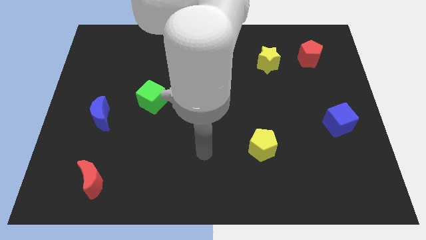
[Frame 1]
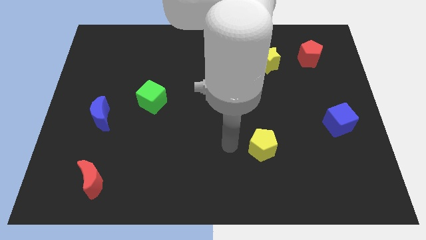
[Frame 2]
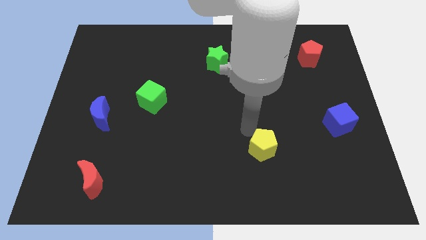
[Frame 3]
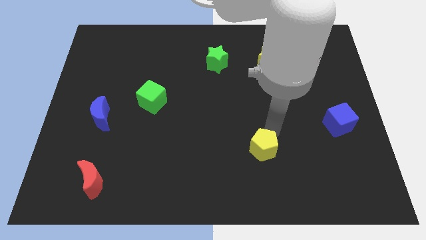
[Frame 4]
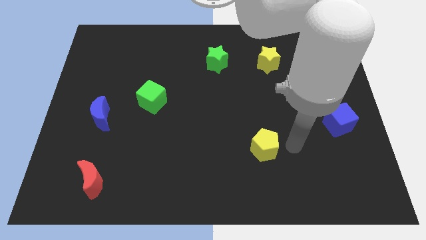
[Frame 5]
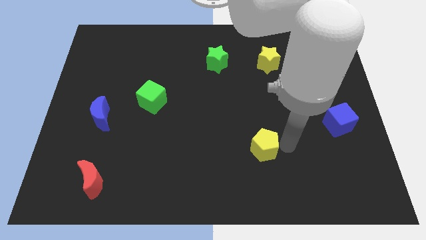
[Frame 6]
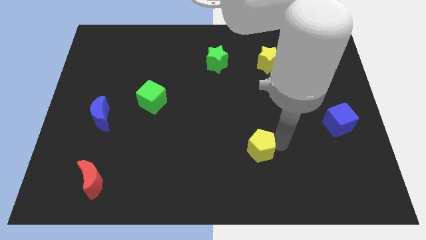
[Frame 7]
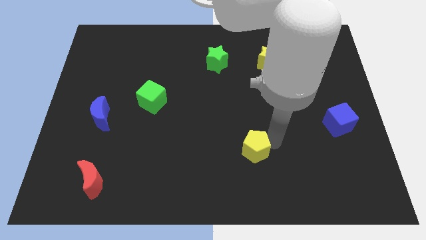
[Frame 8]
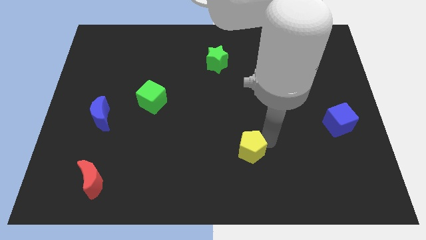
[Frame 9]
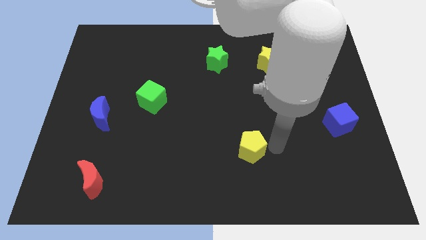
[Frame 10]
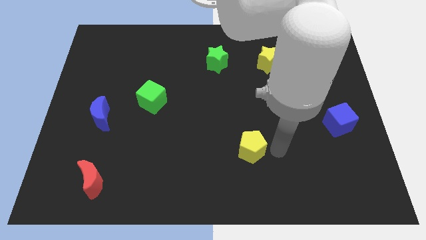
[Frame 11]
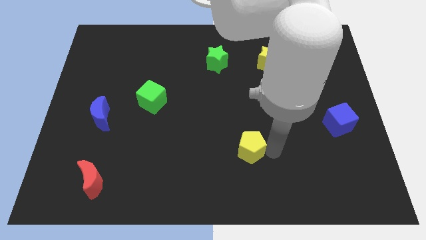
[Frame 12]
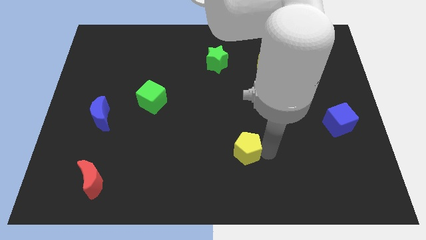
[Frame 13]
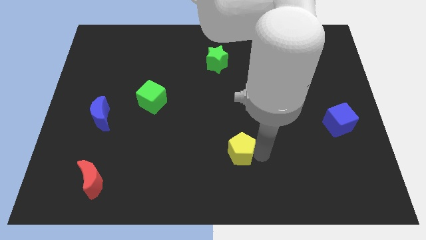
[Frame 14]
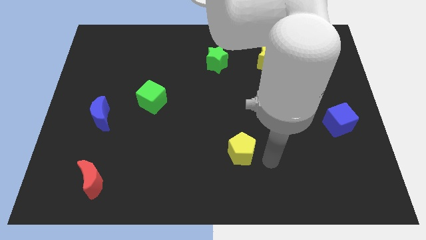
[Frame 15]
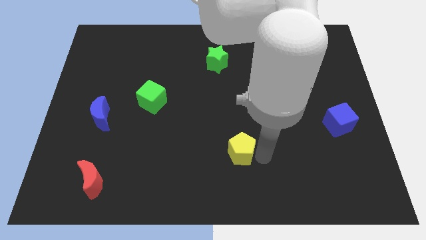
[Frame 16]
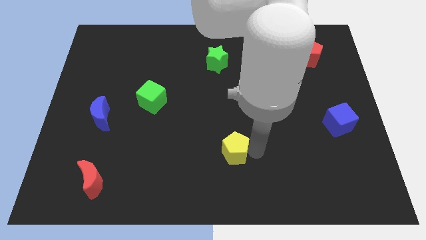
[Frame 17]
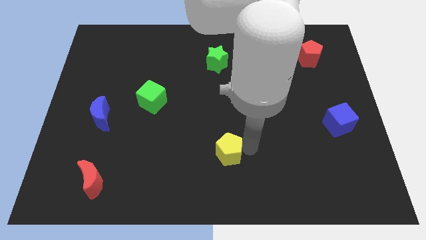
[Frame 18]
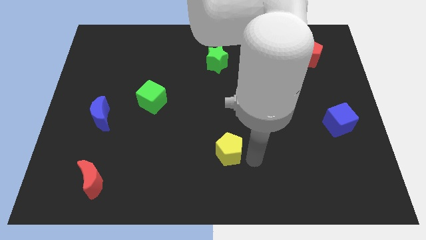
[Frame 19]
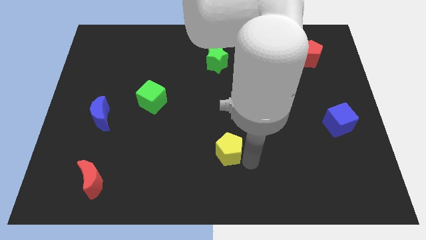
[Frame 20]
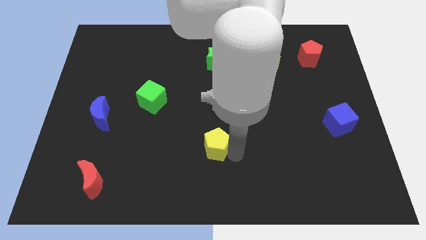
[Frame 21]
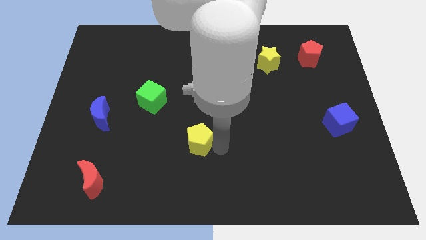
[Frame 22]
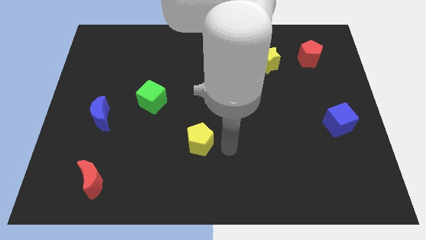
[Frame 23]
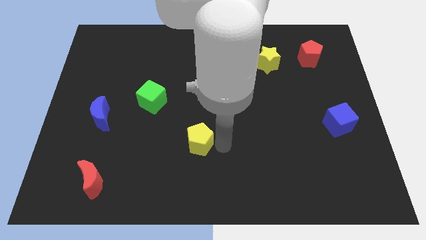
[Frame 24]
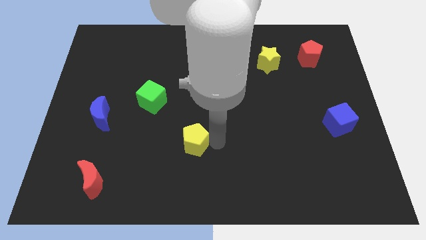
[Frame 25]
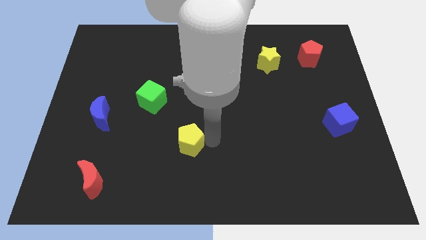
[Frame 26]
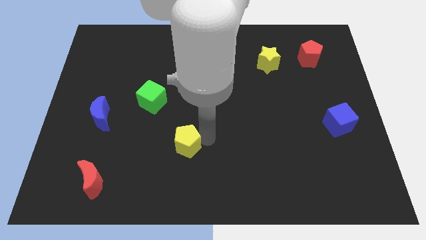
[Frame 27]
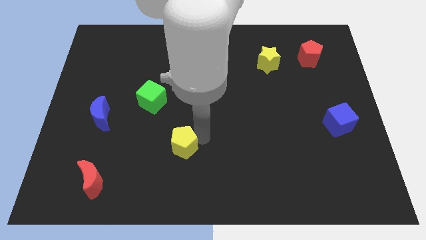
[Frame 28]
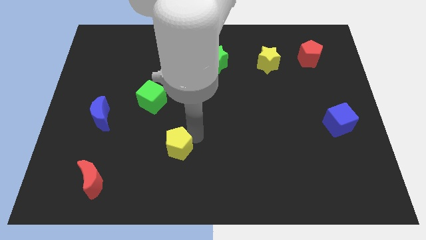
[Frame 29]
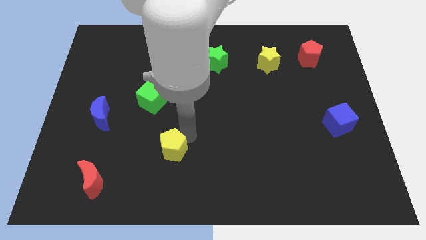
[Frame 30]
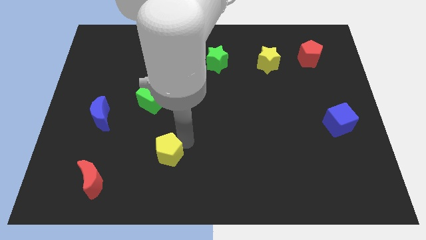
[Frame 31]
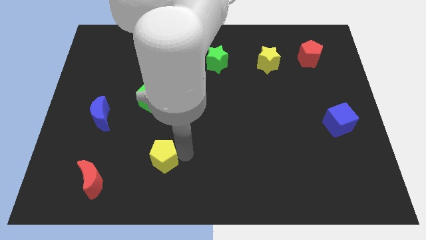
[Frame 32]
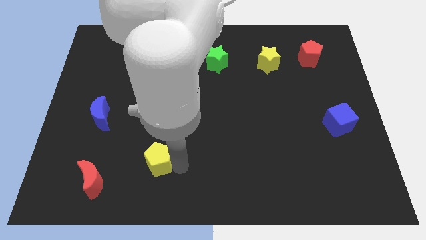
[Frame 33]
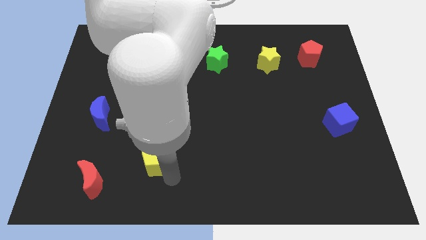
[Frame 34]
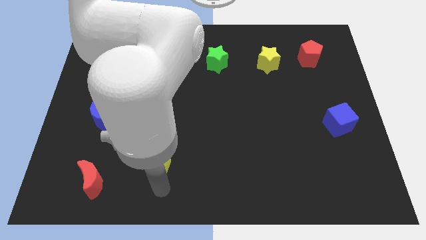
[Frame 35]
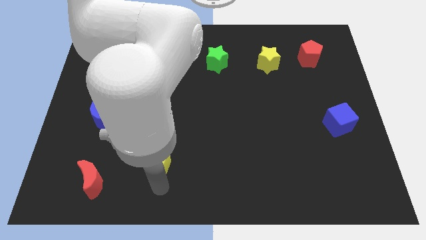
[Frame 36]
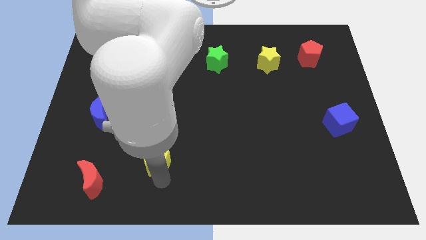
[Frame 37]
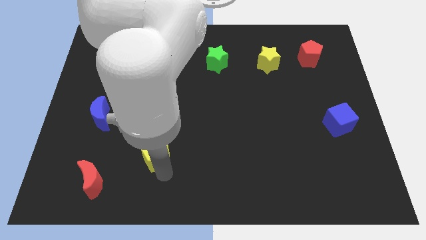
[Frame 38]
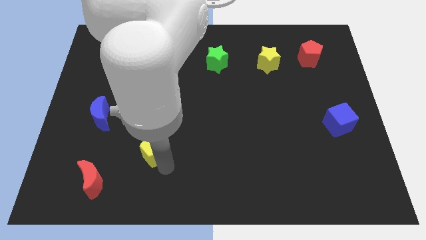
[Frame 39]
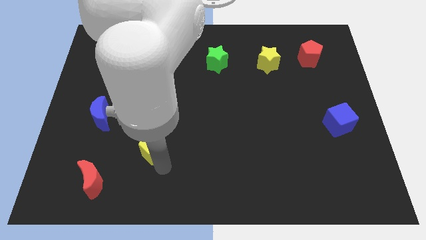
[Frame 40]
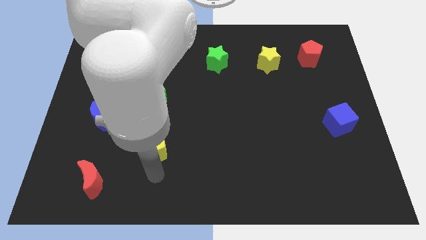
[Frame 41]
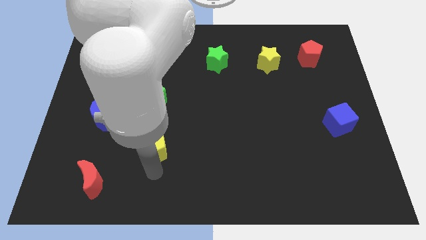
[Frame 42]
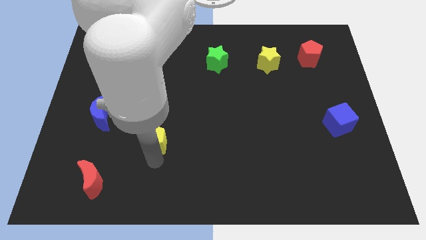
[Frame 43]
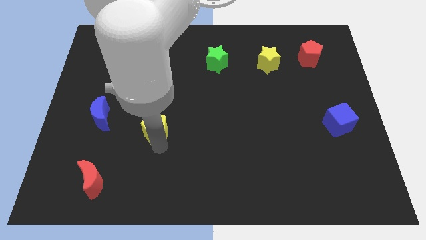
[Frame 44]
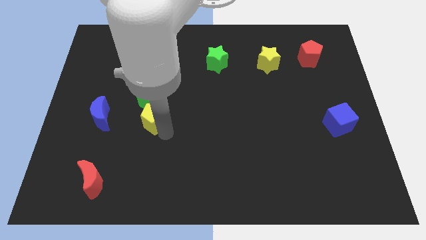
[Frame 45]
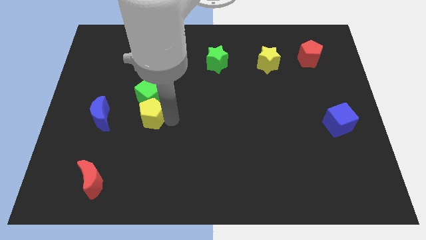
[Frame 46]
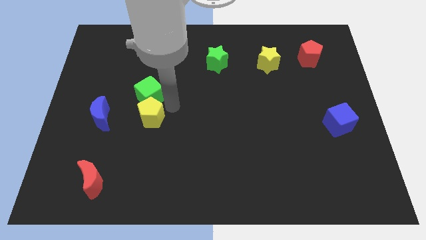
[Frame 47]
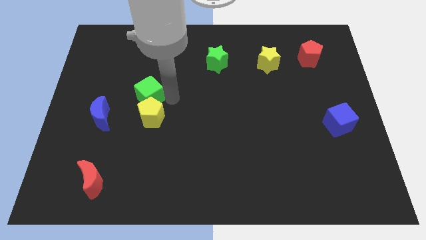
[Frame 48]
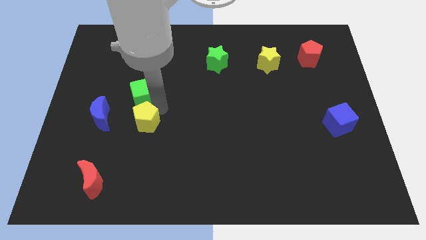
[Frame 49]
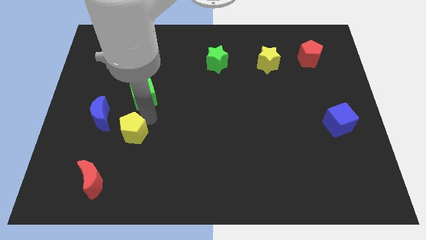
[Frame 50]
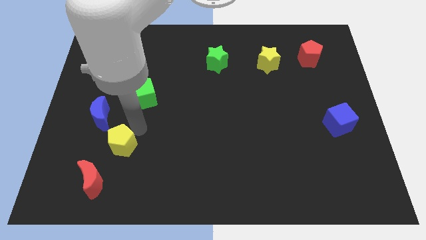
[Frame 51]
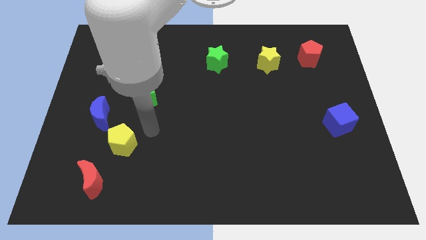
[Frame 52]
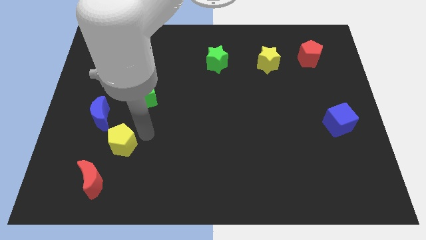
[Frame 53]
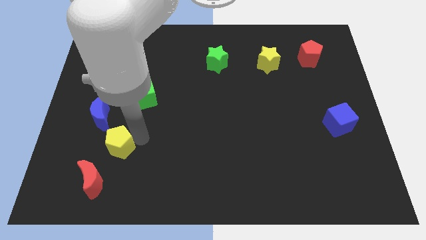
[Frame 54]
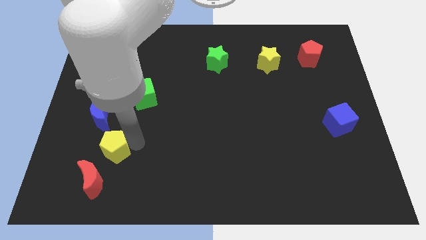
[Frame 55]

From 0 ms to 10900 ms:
slide the yellow pentagon below the blue moon

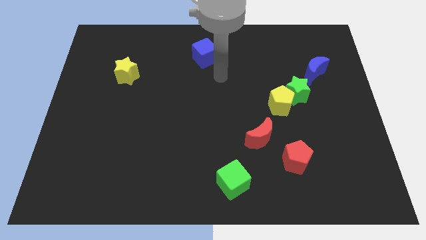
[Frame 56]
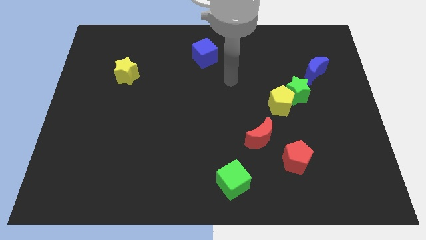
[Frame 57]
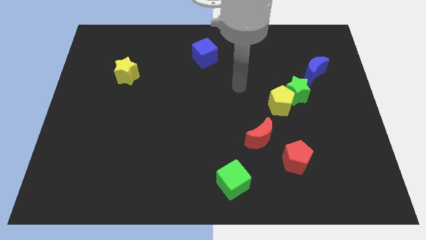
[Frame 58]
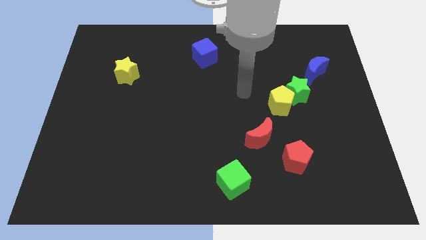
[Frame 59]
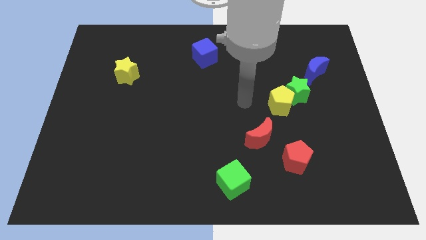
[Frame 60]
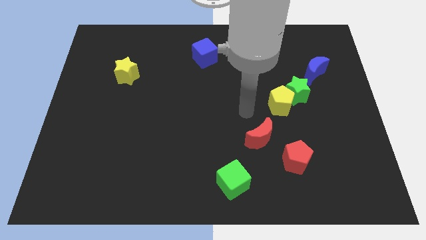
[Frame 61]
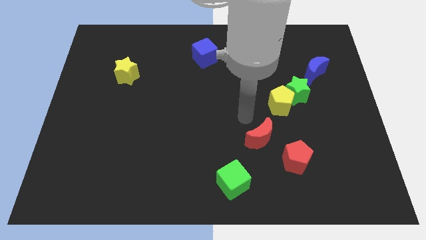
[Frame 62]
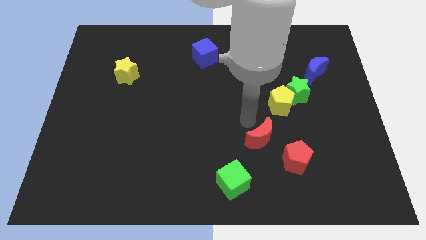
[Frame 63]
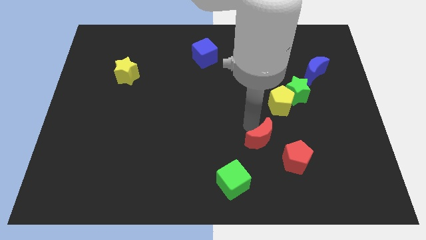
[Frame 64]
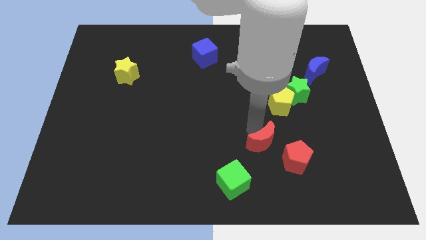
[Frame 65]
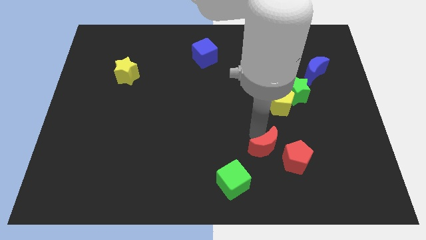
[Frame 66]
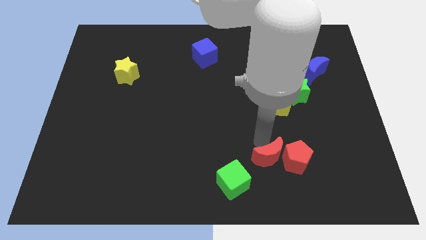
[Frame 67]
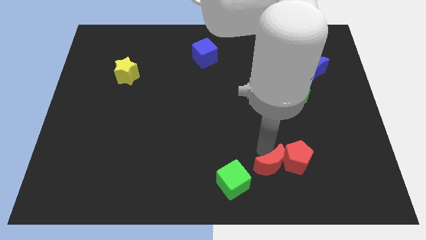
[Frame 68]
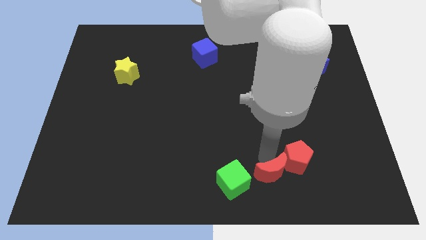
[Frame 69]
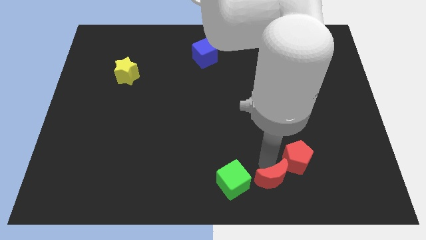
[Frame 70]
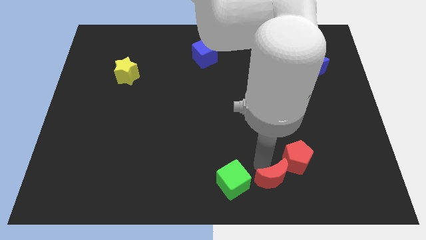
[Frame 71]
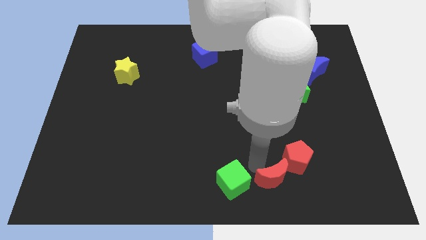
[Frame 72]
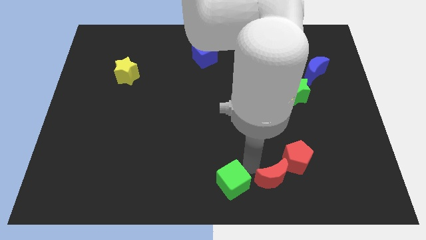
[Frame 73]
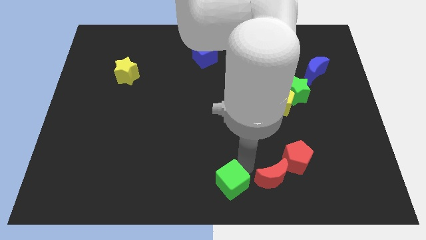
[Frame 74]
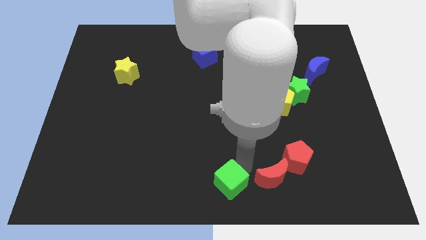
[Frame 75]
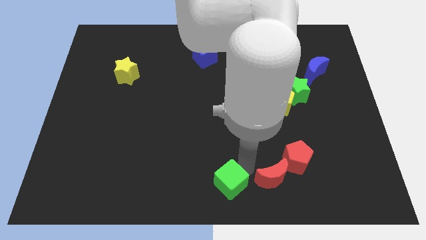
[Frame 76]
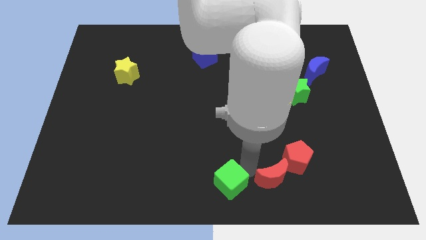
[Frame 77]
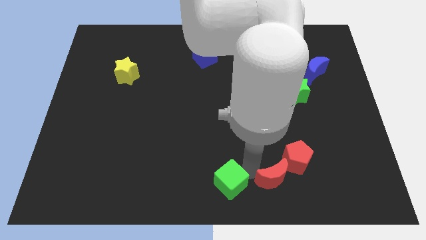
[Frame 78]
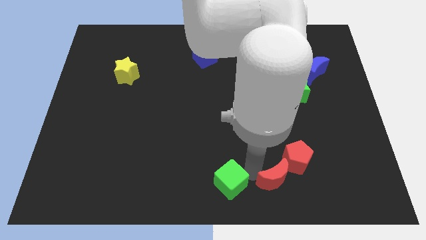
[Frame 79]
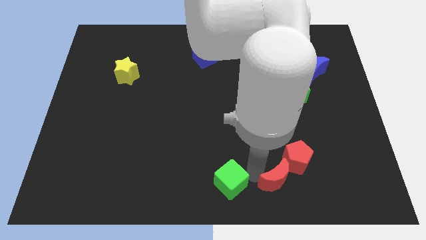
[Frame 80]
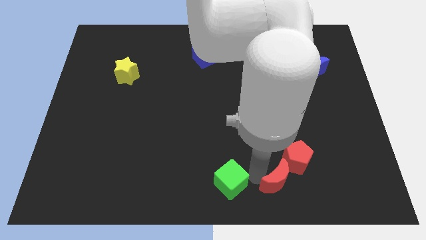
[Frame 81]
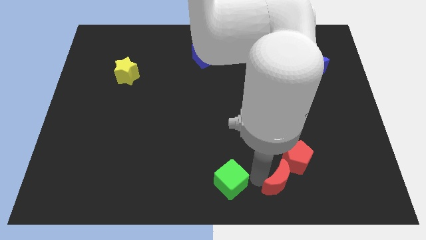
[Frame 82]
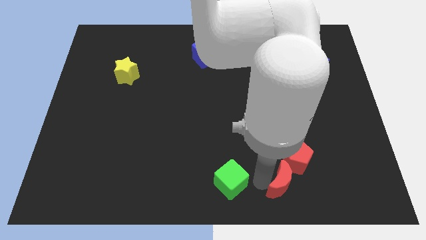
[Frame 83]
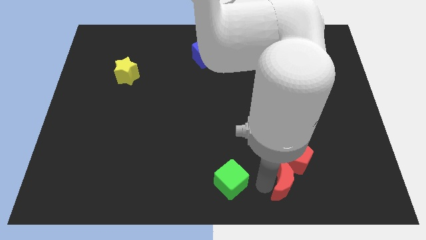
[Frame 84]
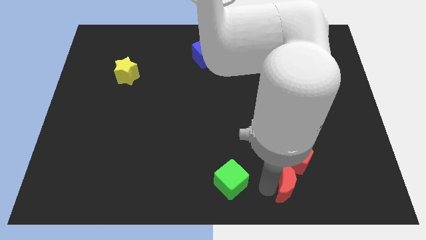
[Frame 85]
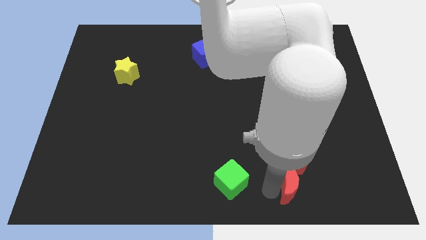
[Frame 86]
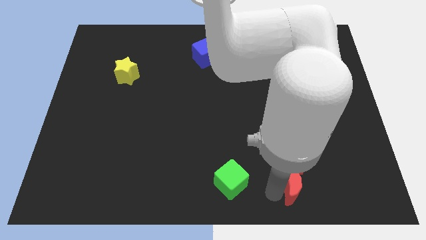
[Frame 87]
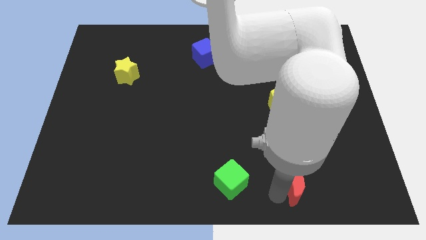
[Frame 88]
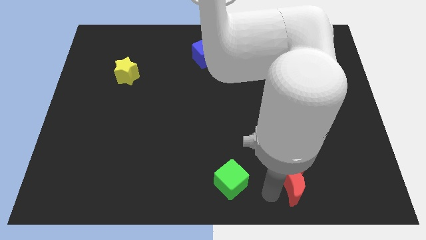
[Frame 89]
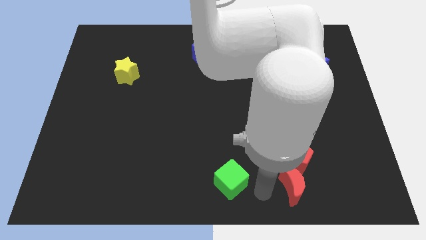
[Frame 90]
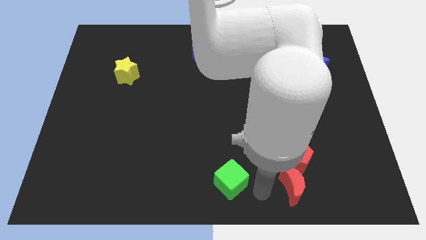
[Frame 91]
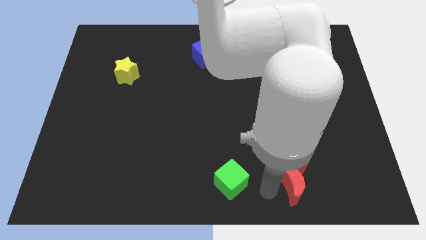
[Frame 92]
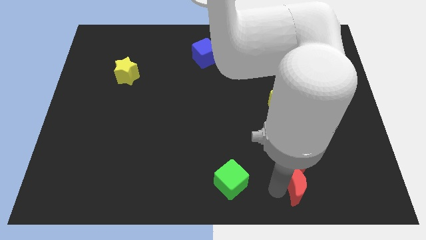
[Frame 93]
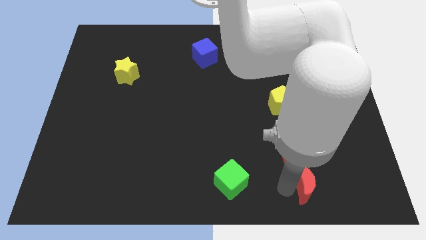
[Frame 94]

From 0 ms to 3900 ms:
put the red moon to the bottom right of the red pentagon
